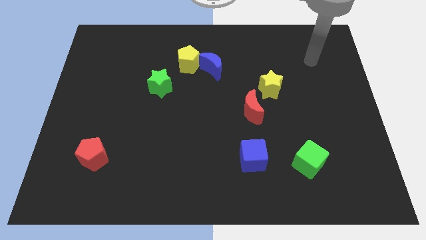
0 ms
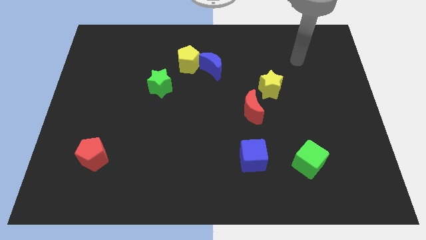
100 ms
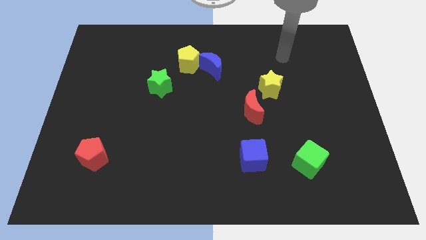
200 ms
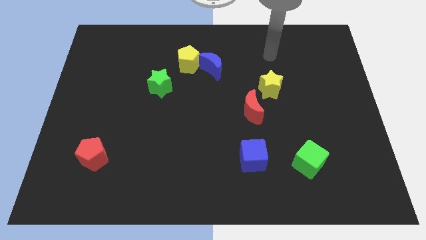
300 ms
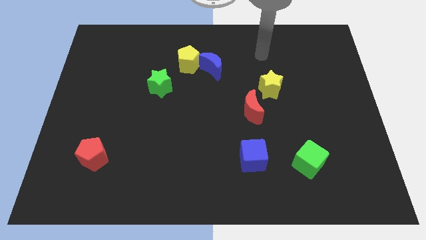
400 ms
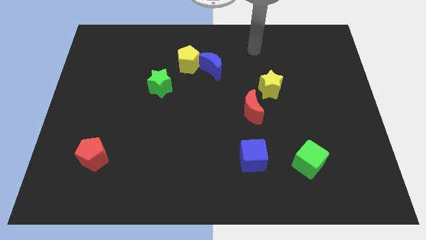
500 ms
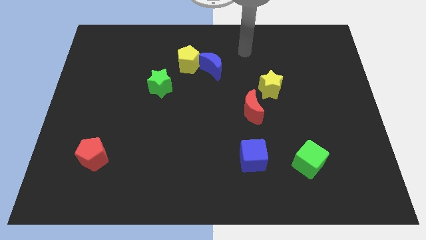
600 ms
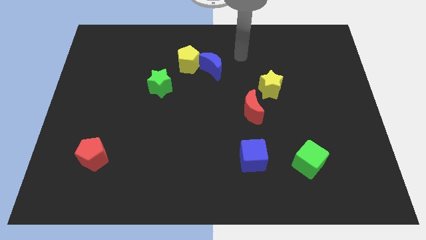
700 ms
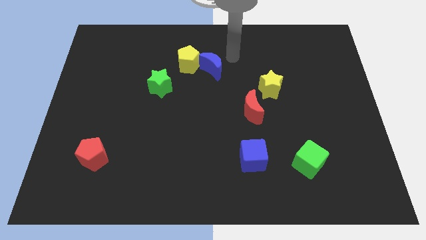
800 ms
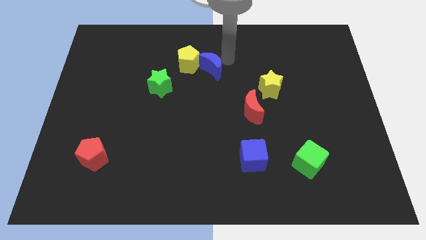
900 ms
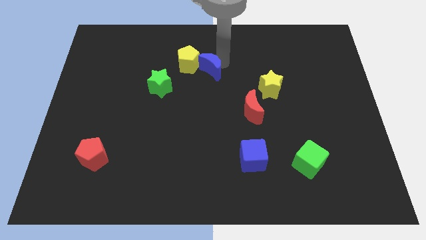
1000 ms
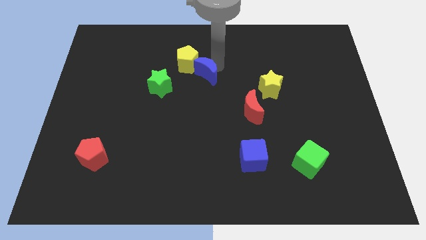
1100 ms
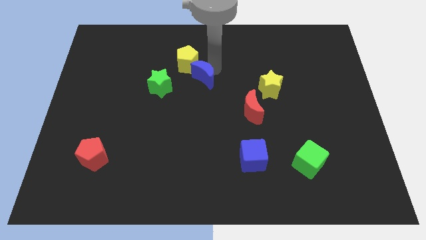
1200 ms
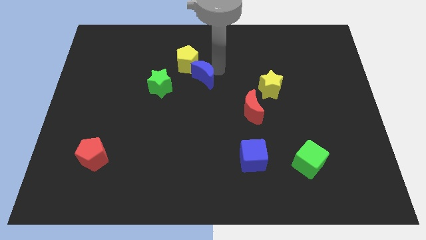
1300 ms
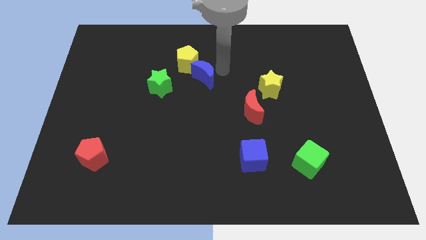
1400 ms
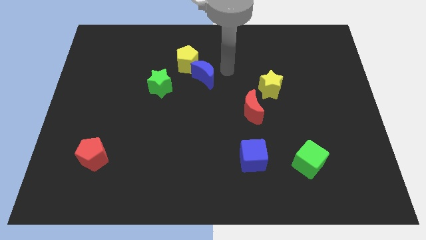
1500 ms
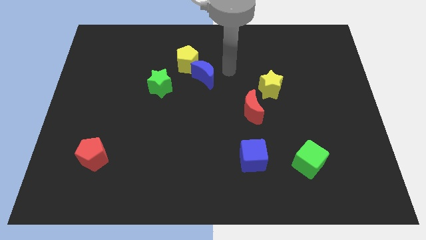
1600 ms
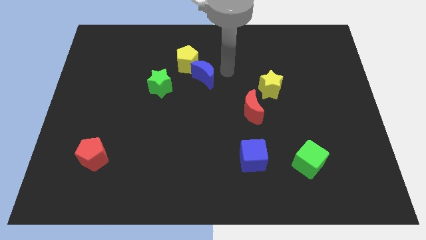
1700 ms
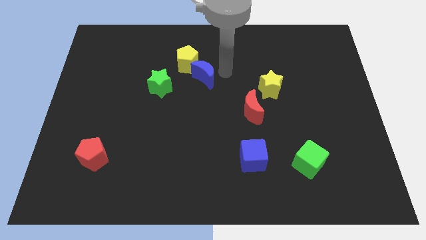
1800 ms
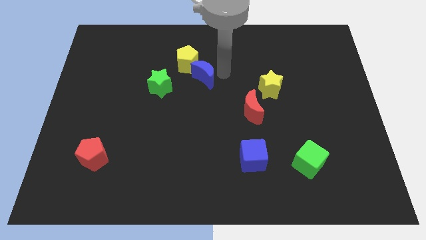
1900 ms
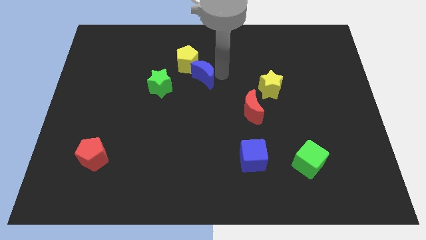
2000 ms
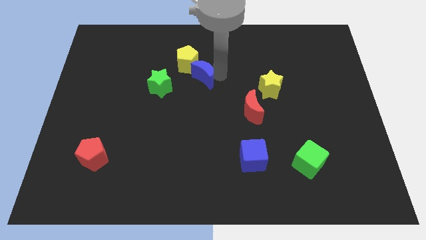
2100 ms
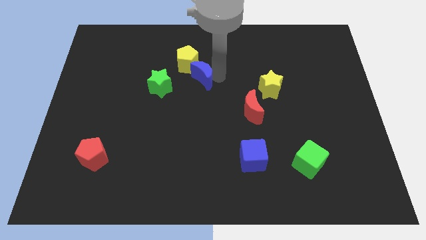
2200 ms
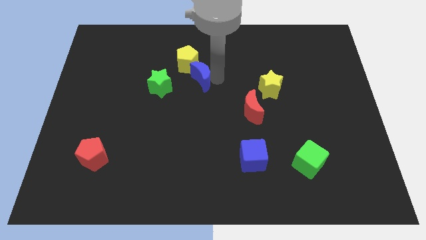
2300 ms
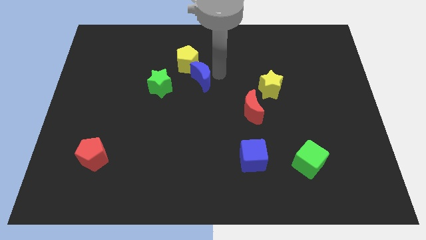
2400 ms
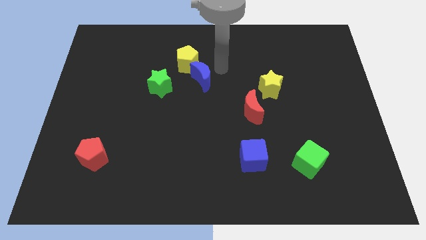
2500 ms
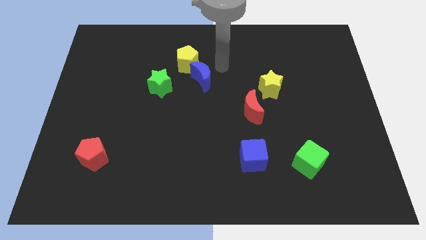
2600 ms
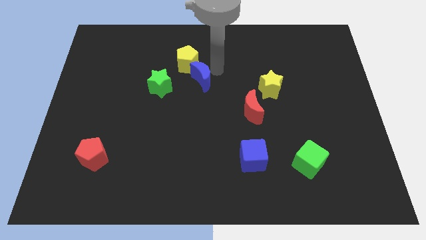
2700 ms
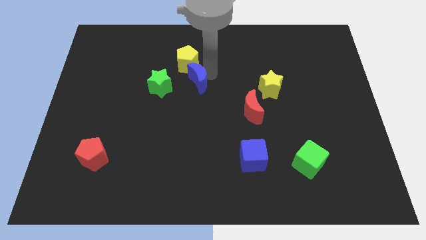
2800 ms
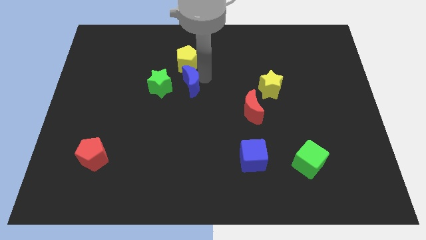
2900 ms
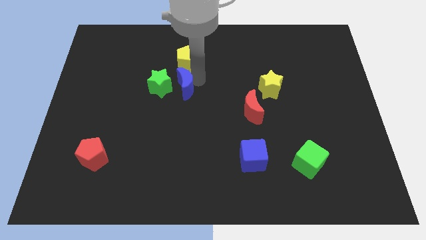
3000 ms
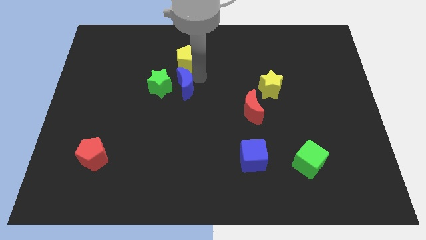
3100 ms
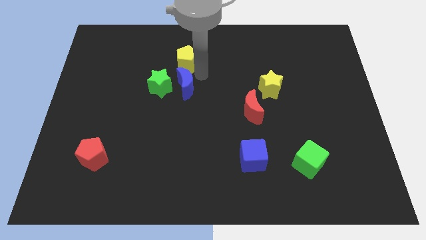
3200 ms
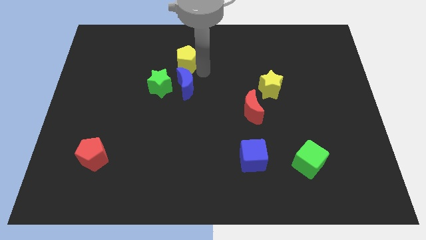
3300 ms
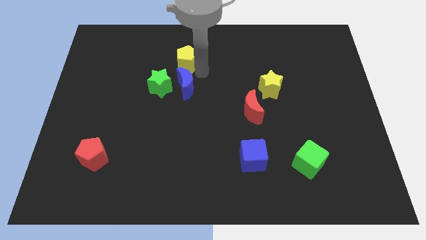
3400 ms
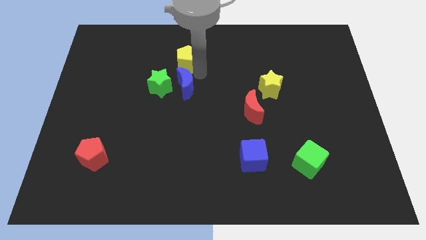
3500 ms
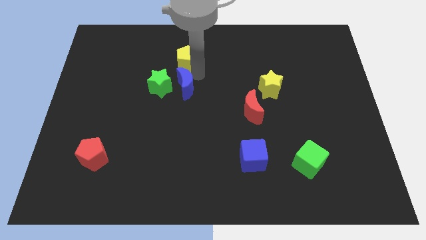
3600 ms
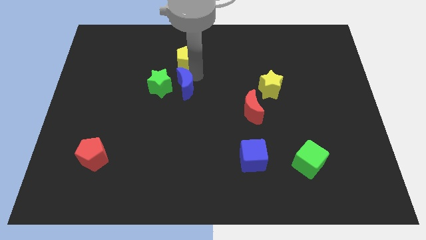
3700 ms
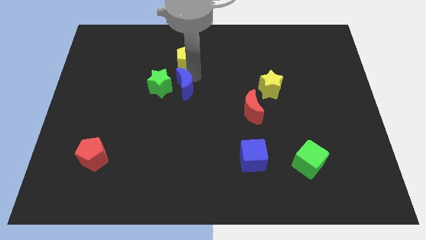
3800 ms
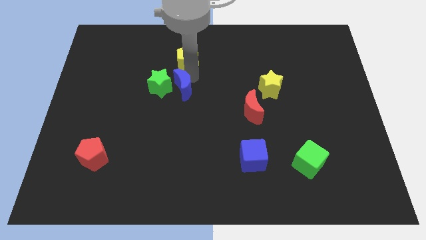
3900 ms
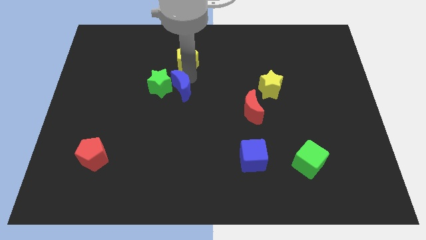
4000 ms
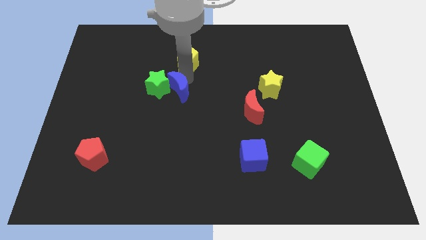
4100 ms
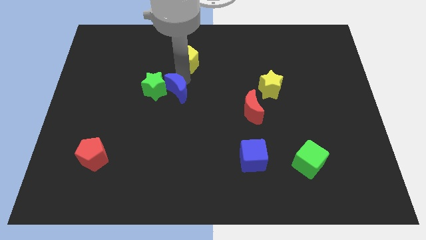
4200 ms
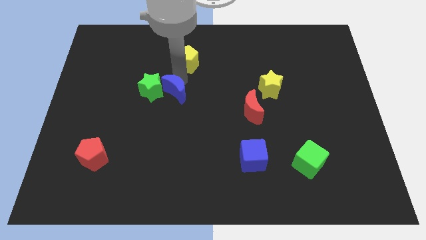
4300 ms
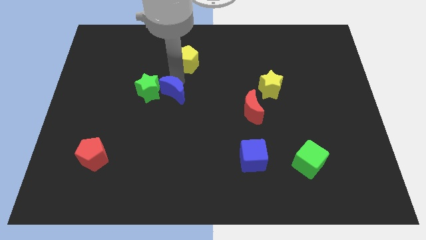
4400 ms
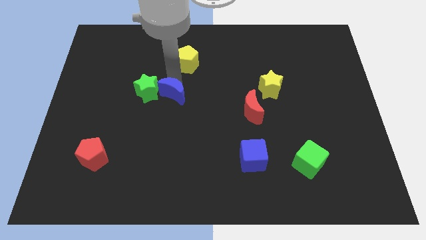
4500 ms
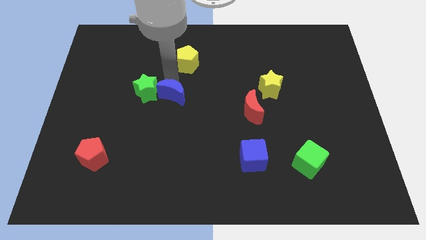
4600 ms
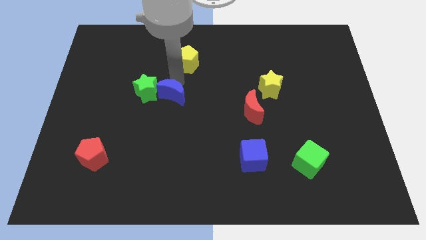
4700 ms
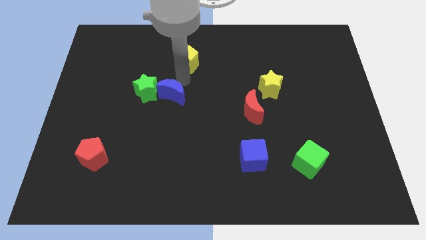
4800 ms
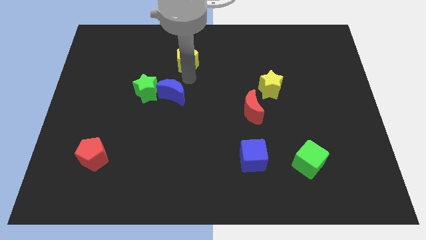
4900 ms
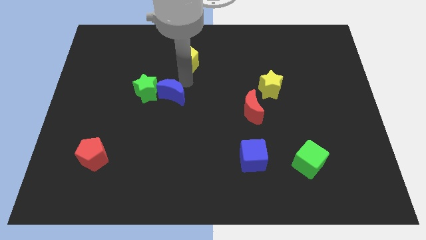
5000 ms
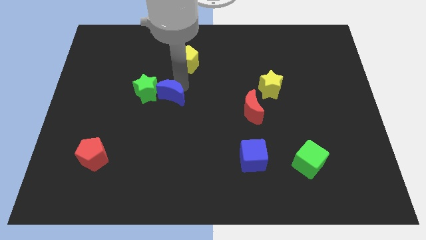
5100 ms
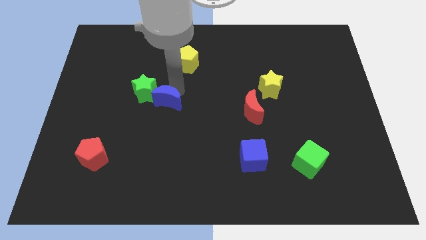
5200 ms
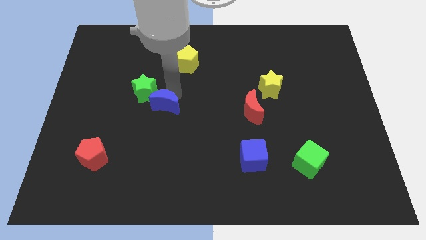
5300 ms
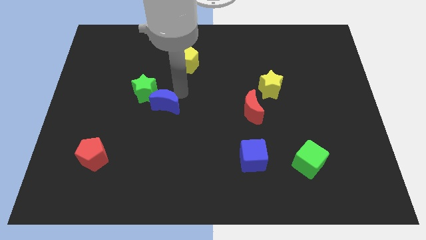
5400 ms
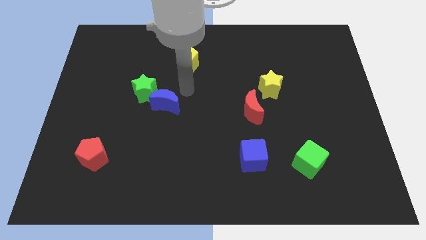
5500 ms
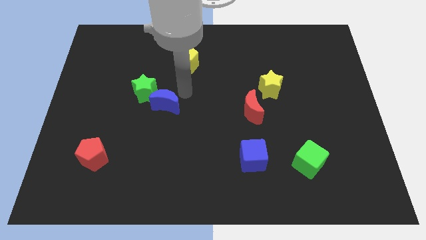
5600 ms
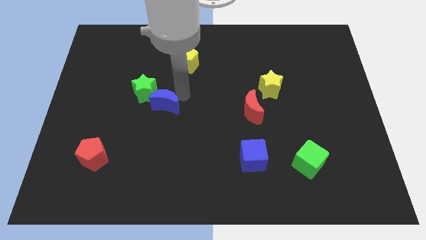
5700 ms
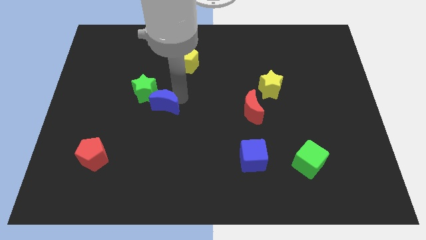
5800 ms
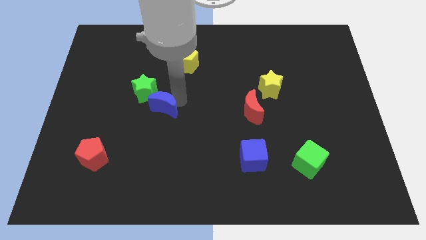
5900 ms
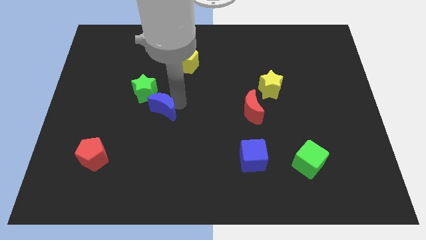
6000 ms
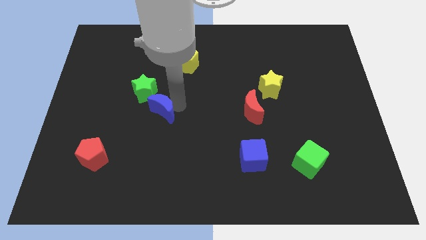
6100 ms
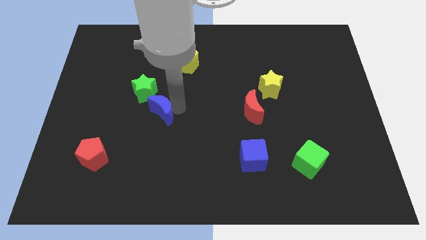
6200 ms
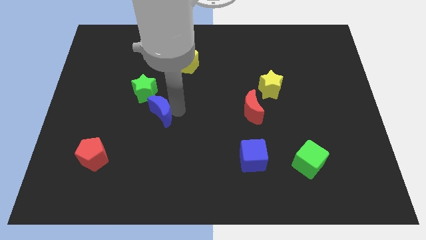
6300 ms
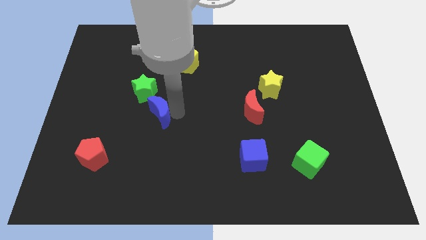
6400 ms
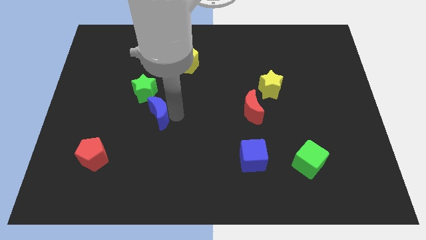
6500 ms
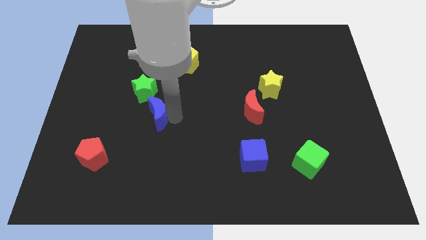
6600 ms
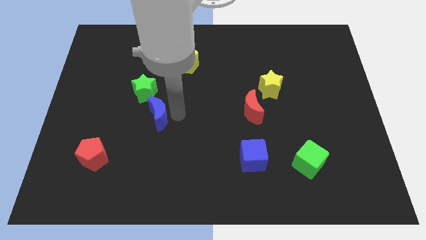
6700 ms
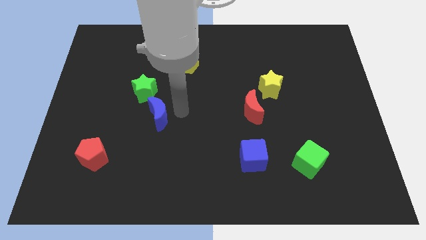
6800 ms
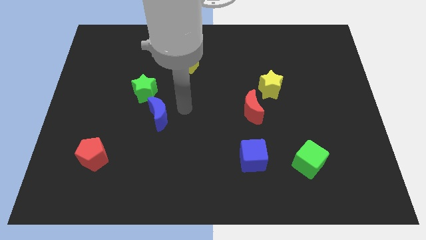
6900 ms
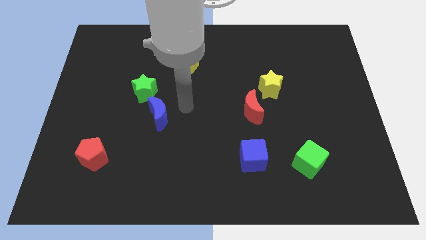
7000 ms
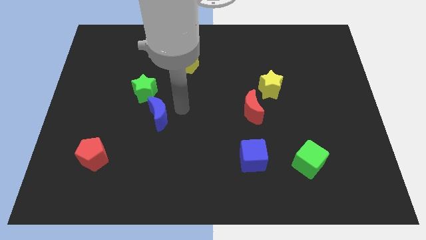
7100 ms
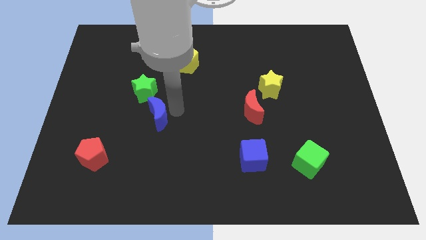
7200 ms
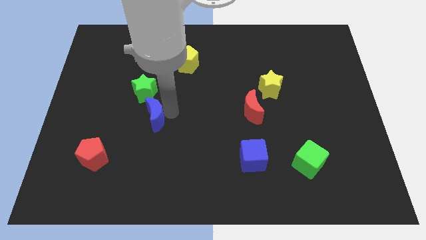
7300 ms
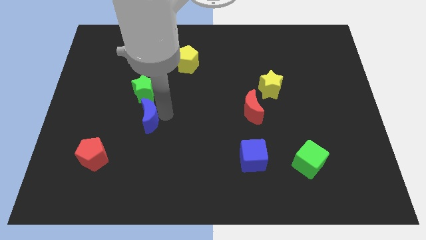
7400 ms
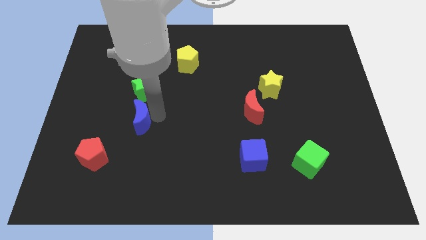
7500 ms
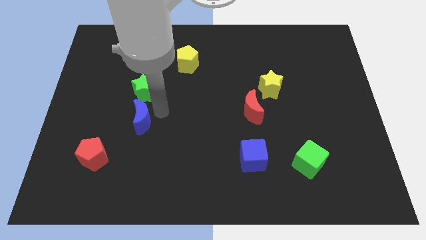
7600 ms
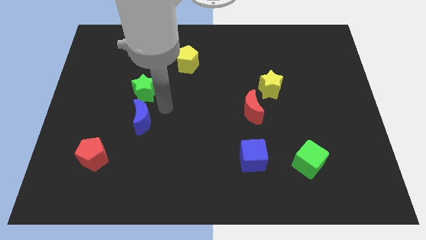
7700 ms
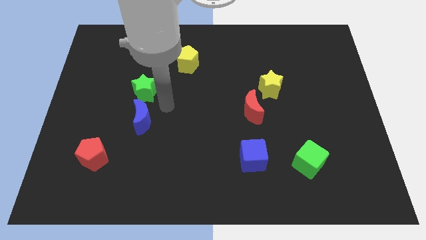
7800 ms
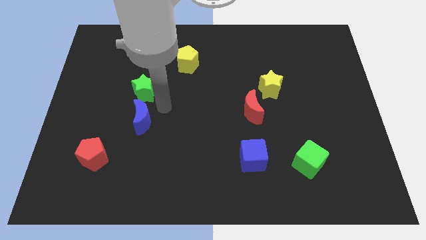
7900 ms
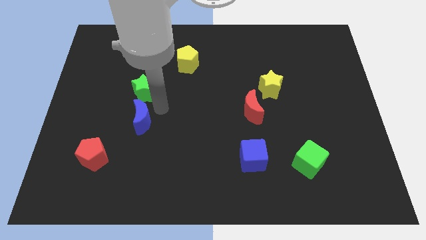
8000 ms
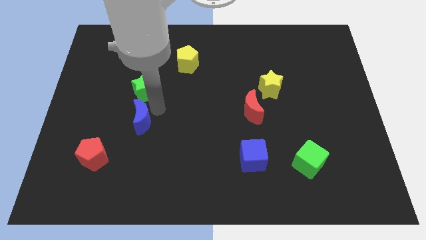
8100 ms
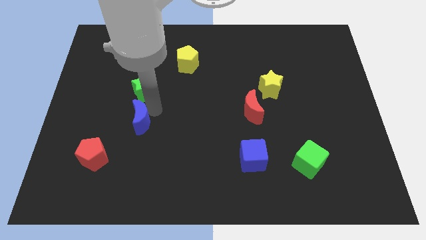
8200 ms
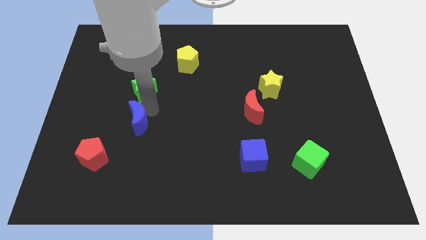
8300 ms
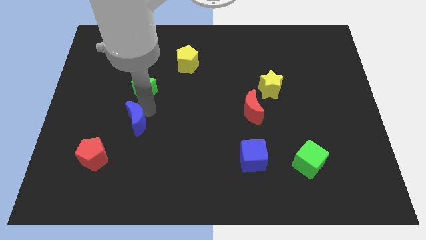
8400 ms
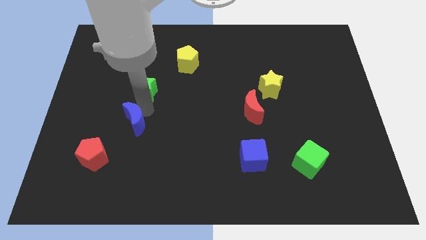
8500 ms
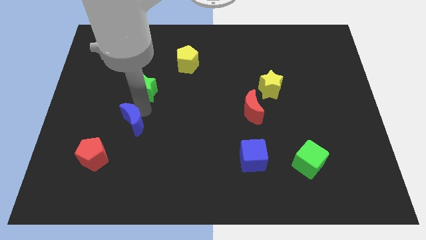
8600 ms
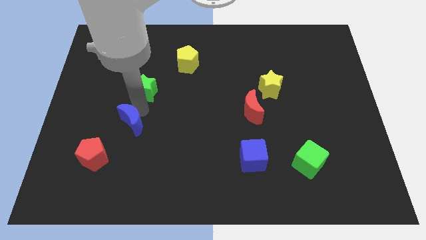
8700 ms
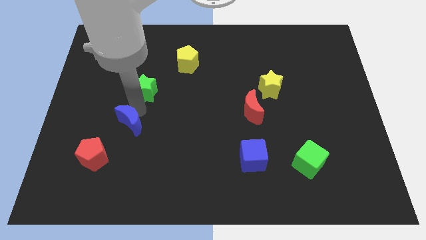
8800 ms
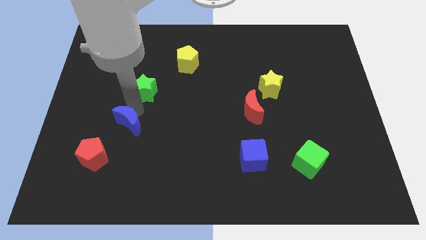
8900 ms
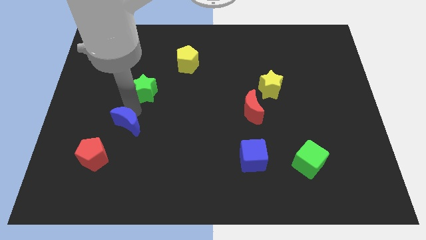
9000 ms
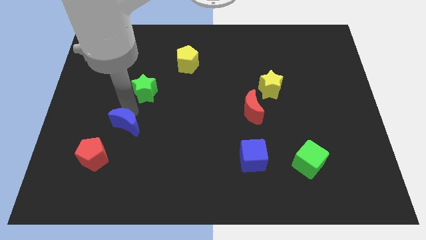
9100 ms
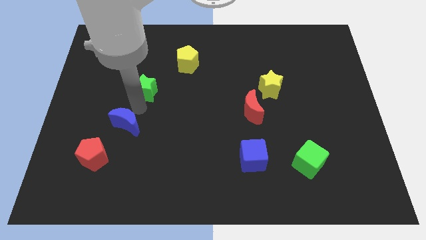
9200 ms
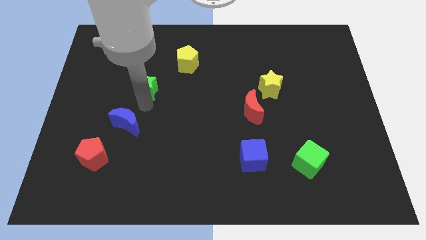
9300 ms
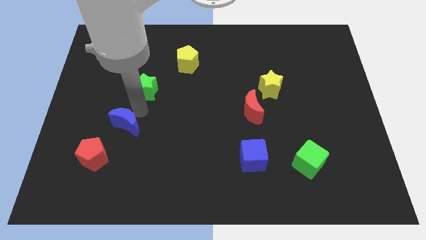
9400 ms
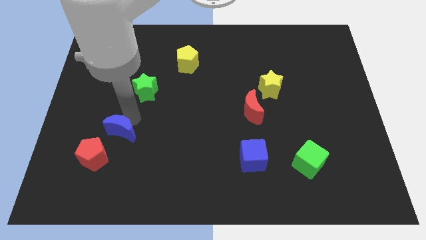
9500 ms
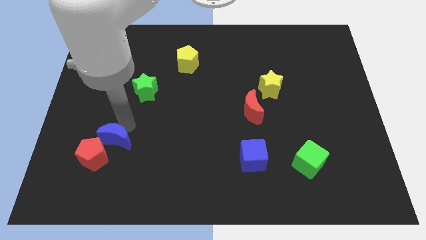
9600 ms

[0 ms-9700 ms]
put the blue moon close to the red pentagon
